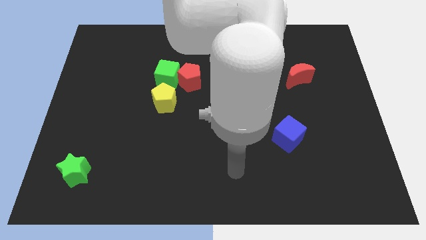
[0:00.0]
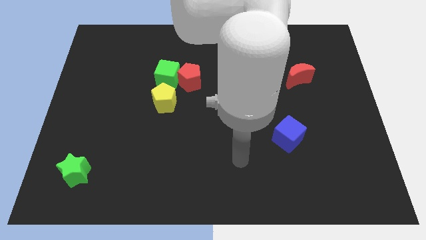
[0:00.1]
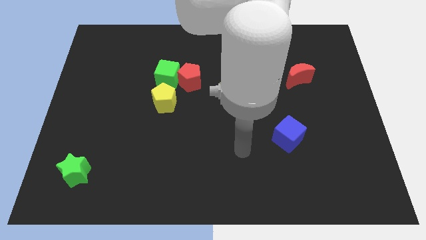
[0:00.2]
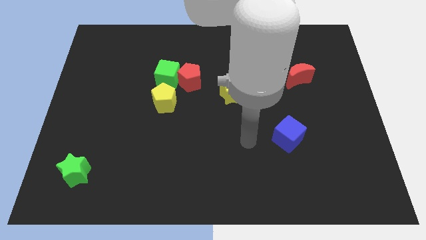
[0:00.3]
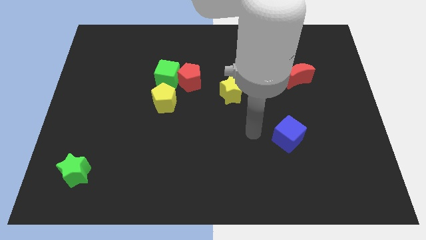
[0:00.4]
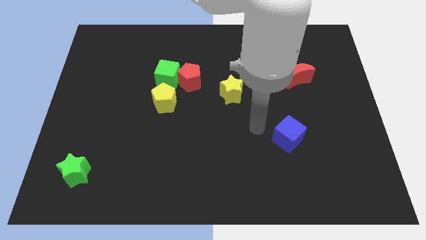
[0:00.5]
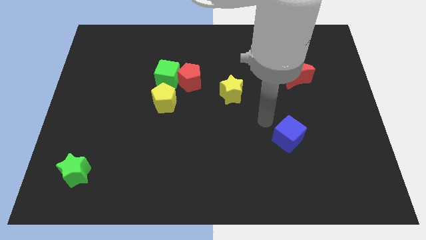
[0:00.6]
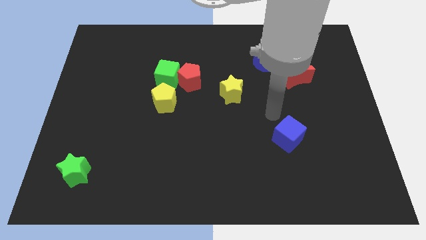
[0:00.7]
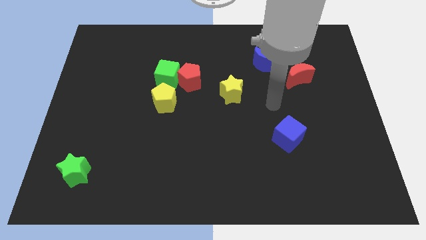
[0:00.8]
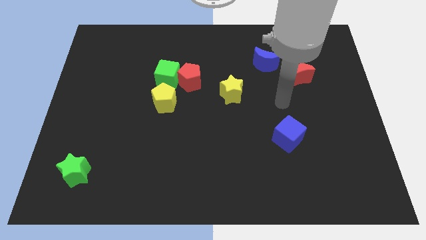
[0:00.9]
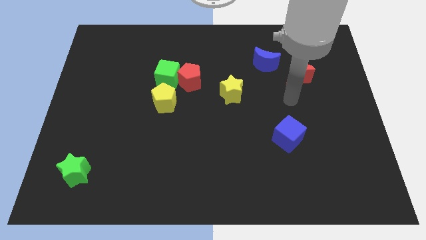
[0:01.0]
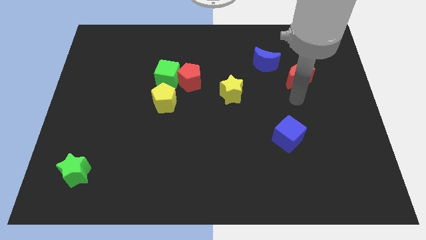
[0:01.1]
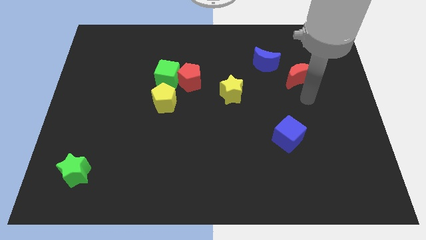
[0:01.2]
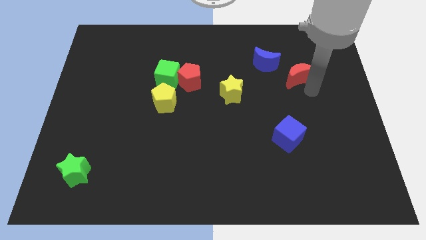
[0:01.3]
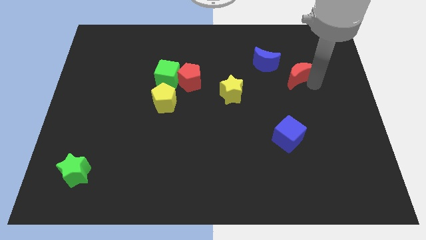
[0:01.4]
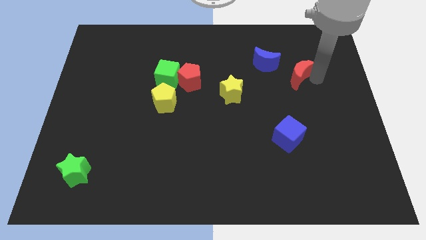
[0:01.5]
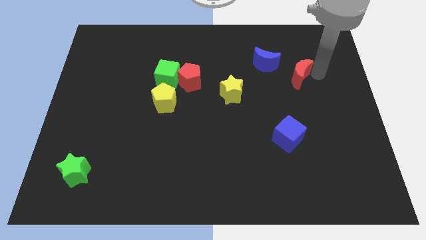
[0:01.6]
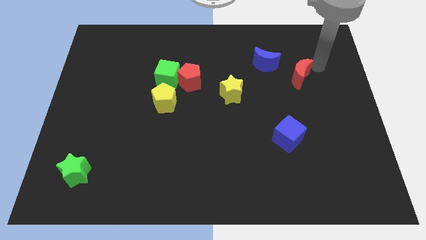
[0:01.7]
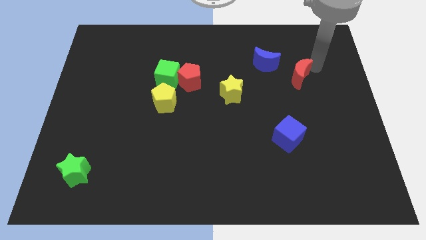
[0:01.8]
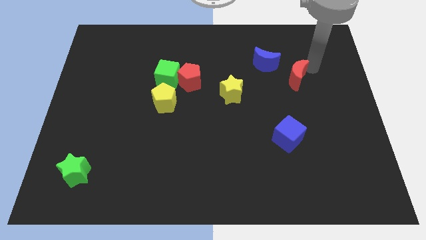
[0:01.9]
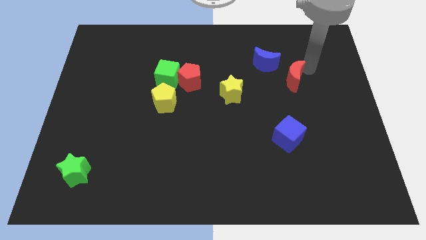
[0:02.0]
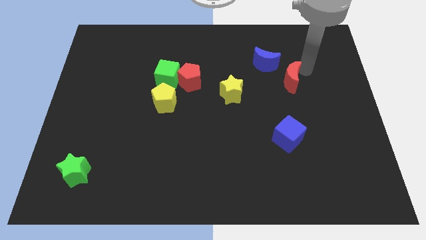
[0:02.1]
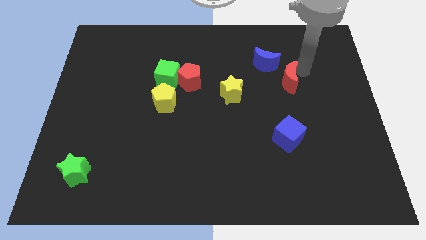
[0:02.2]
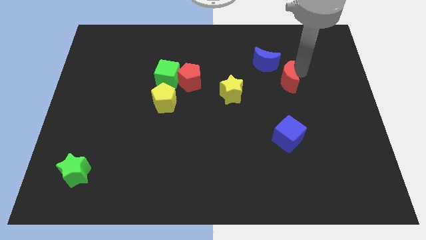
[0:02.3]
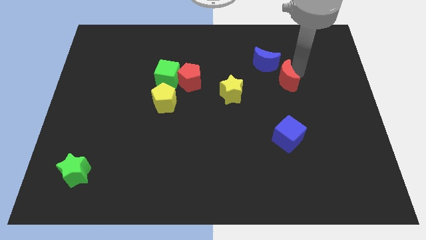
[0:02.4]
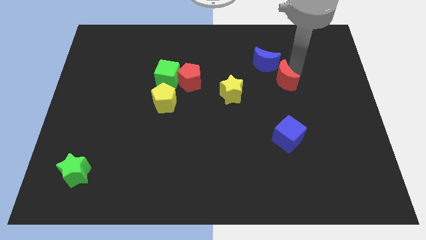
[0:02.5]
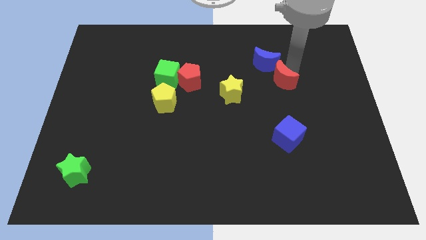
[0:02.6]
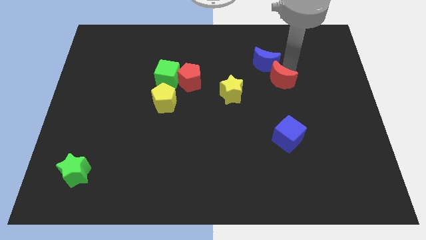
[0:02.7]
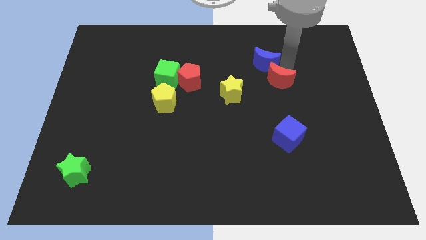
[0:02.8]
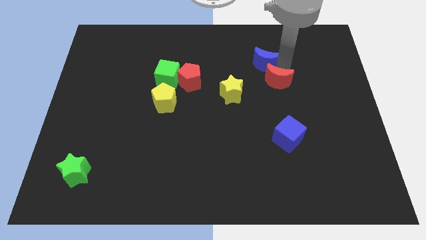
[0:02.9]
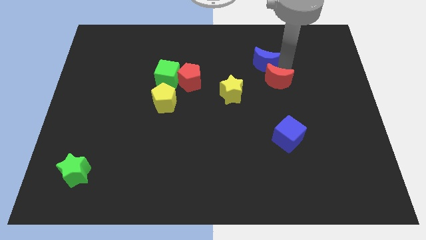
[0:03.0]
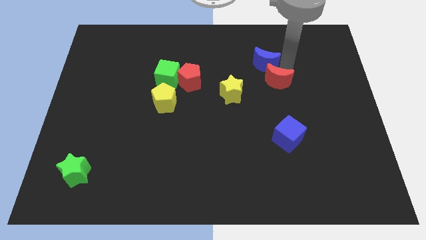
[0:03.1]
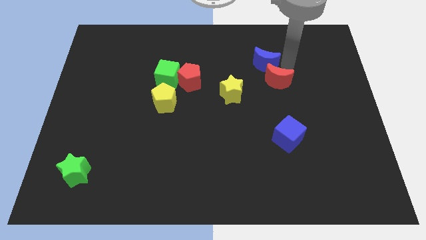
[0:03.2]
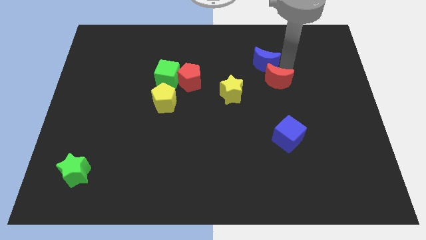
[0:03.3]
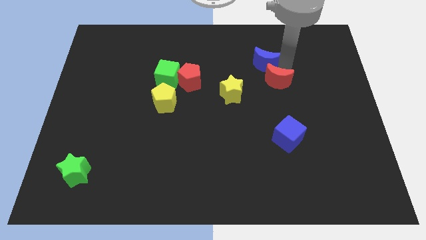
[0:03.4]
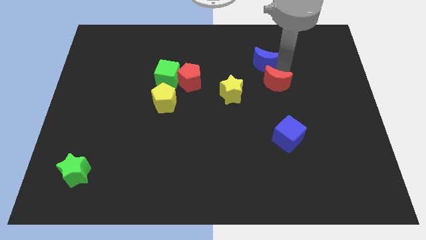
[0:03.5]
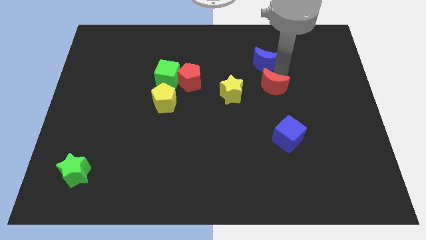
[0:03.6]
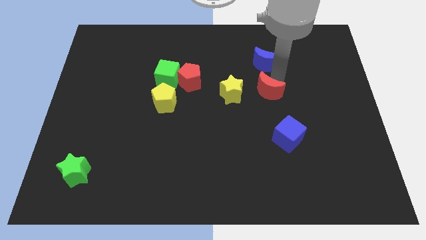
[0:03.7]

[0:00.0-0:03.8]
slightly move the red moon down and to the left

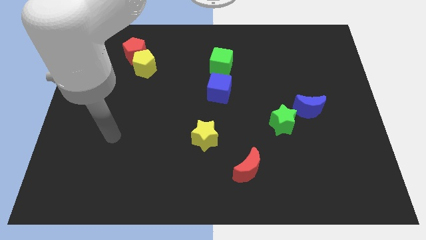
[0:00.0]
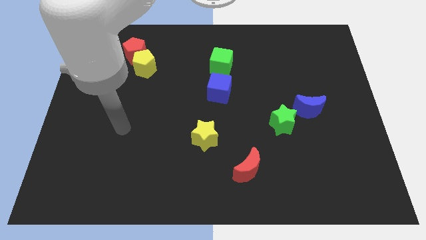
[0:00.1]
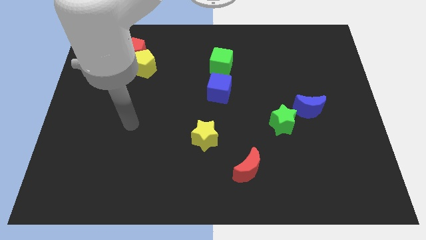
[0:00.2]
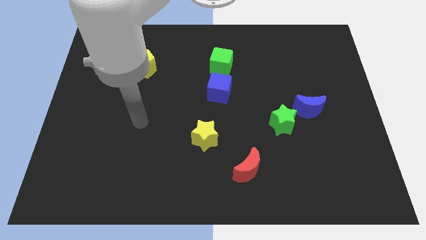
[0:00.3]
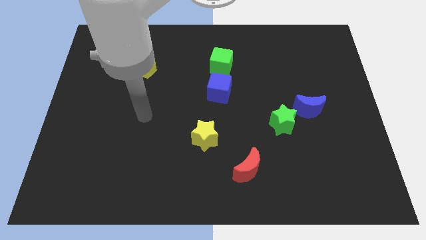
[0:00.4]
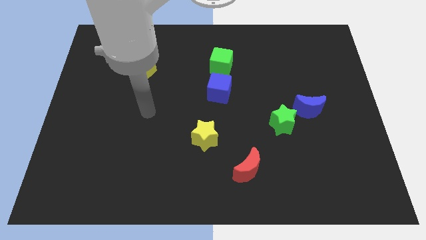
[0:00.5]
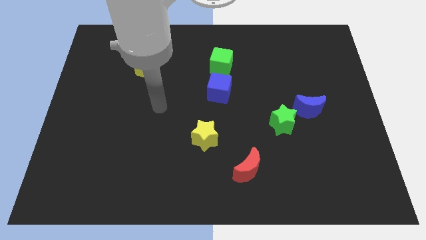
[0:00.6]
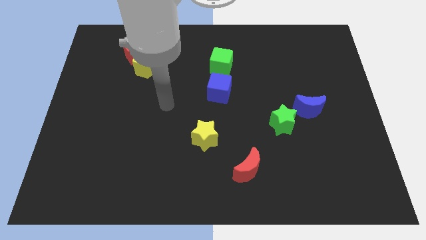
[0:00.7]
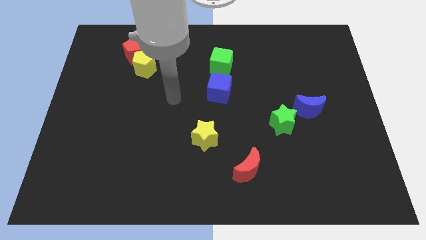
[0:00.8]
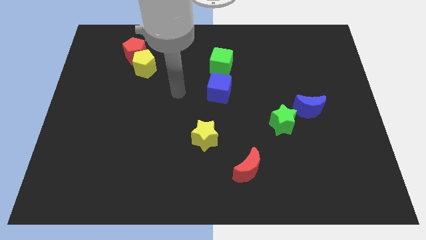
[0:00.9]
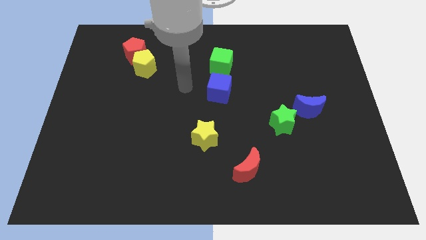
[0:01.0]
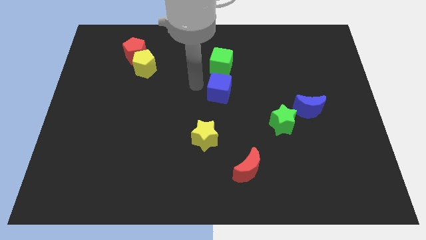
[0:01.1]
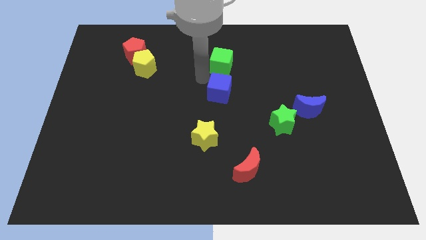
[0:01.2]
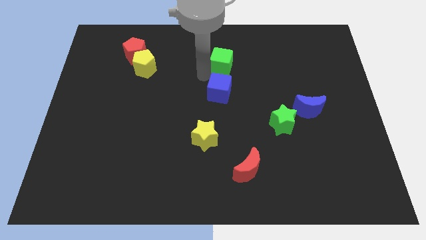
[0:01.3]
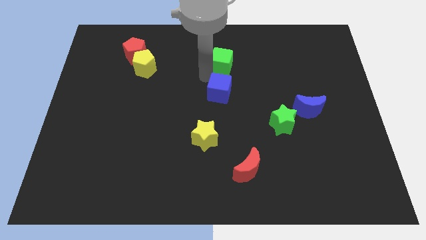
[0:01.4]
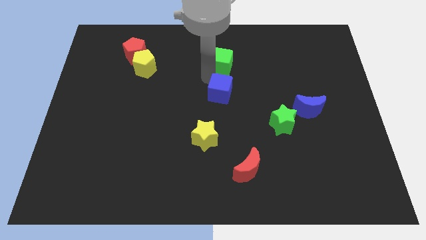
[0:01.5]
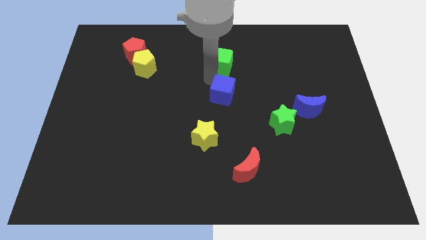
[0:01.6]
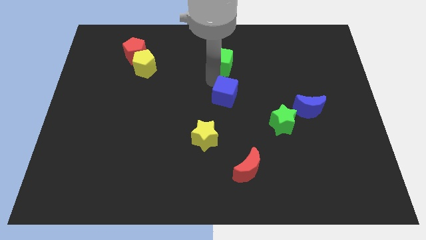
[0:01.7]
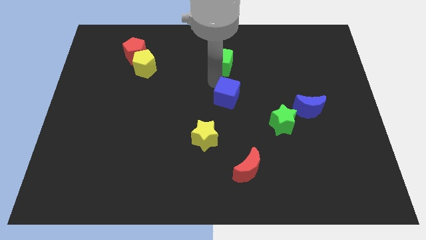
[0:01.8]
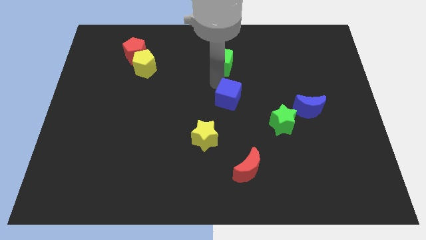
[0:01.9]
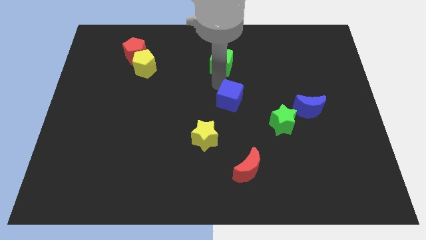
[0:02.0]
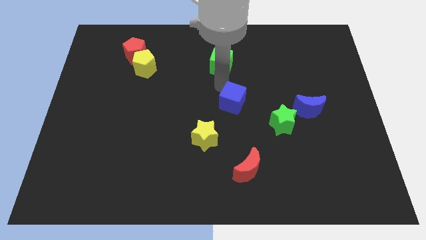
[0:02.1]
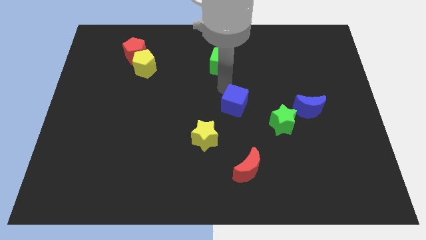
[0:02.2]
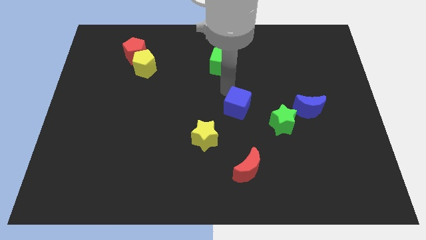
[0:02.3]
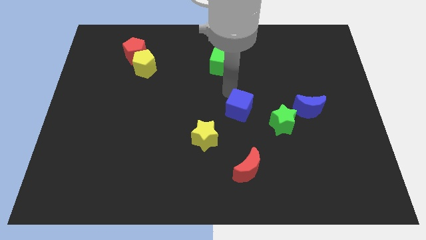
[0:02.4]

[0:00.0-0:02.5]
push the blue cube a little downwards and then to the right

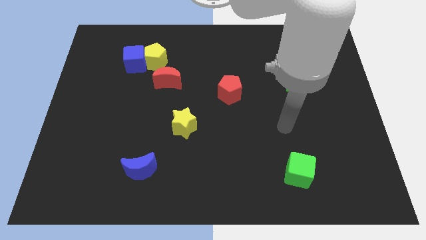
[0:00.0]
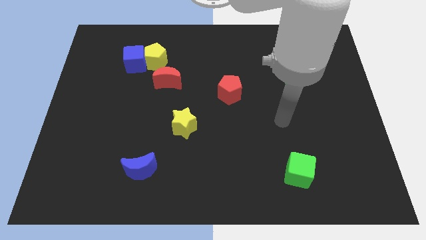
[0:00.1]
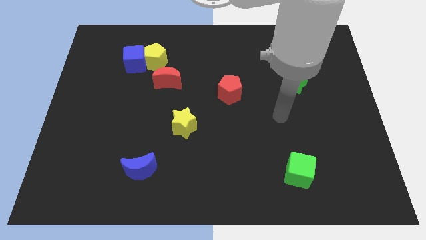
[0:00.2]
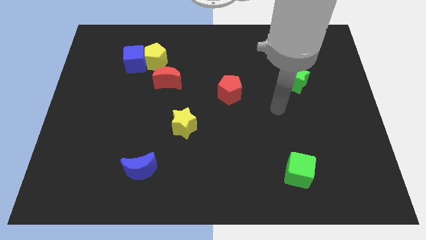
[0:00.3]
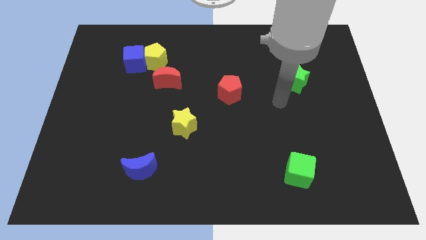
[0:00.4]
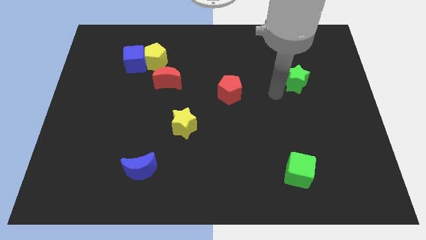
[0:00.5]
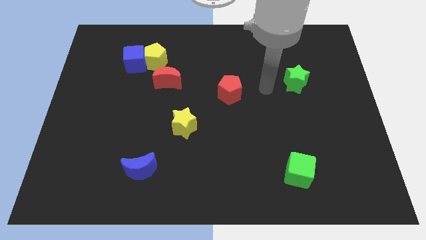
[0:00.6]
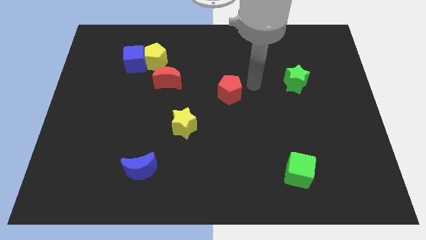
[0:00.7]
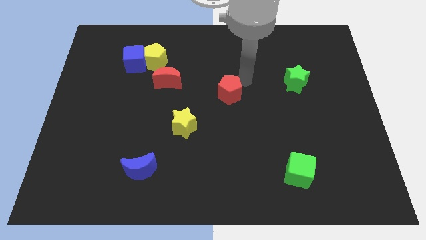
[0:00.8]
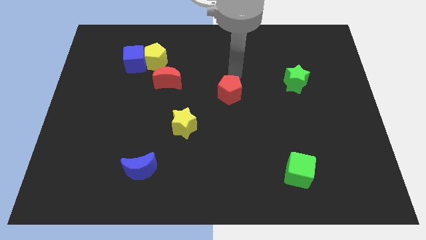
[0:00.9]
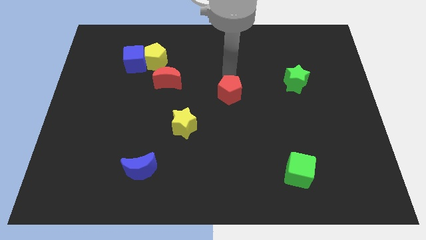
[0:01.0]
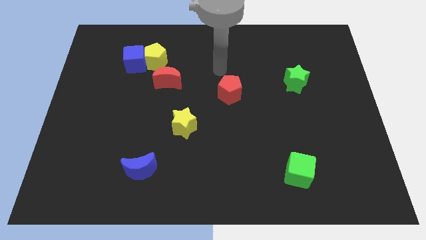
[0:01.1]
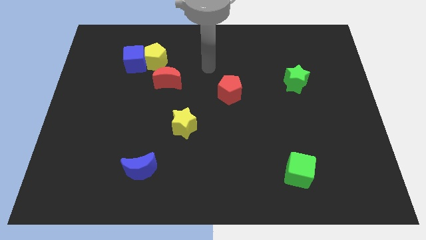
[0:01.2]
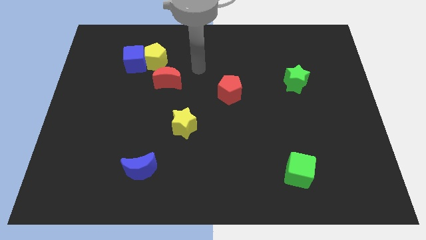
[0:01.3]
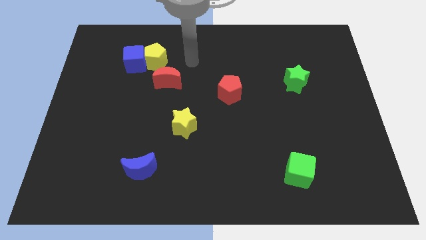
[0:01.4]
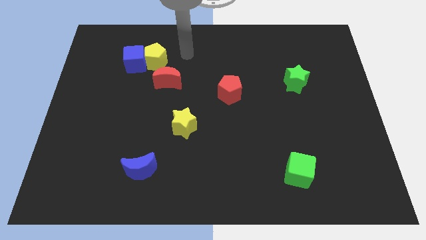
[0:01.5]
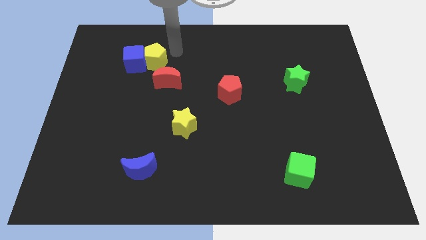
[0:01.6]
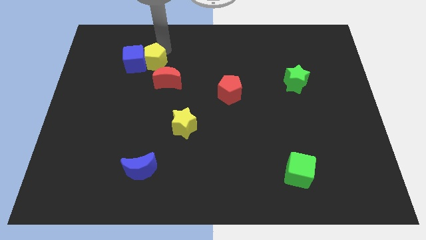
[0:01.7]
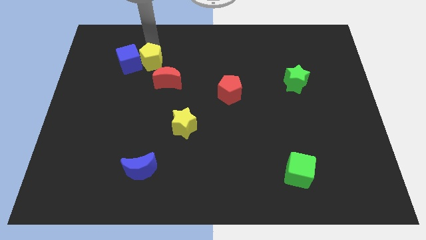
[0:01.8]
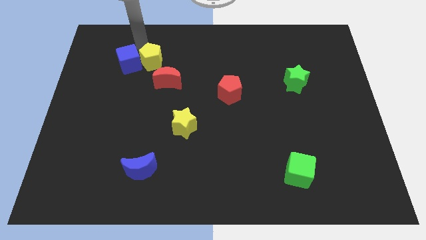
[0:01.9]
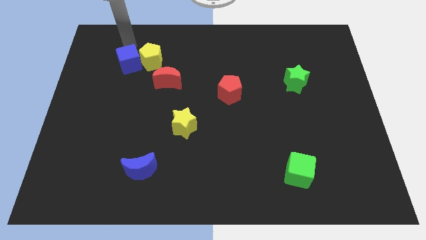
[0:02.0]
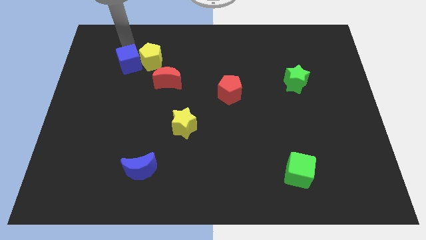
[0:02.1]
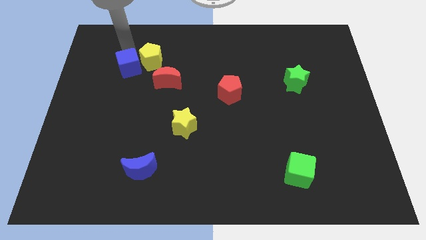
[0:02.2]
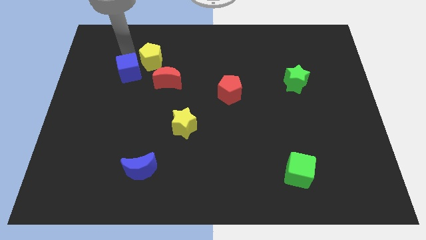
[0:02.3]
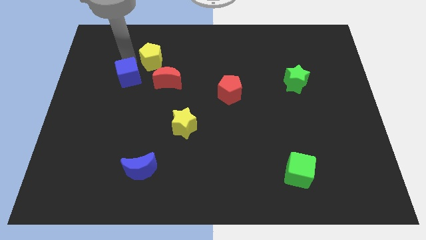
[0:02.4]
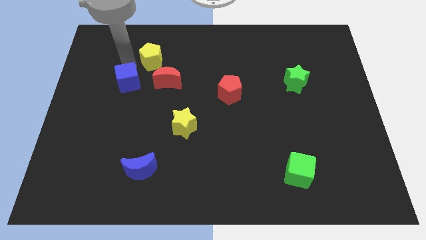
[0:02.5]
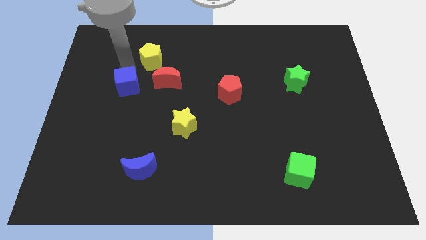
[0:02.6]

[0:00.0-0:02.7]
push the blue cube down a bit
